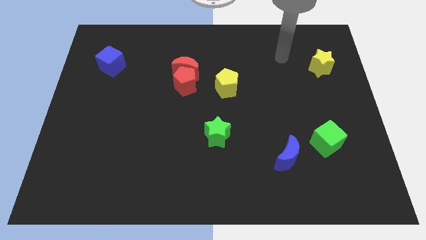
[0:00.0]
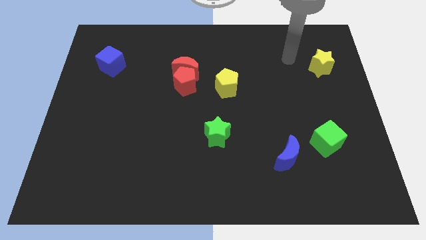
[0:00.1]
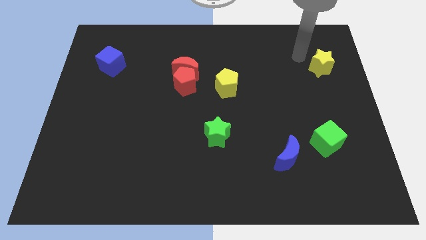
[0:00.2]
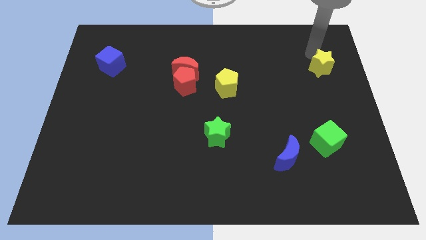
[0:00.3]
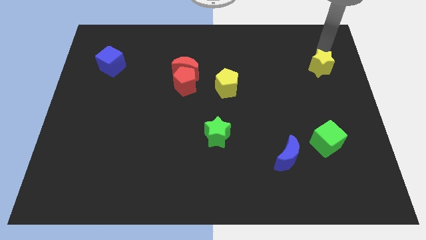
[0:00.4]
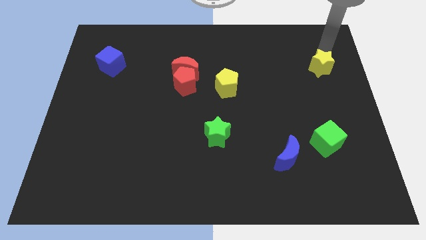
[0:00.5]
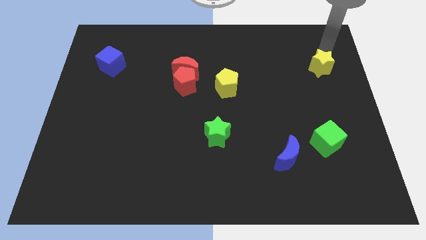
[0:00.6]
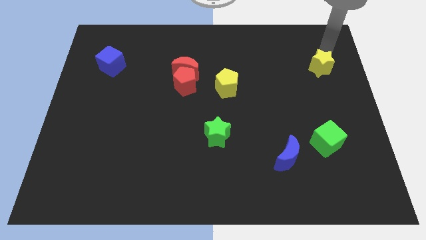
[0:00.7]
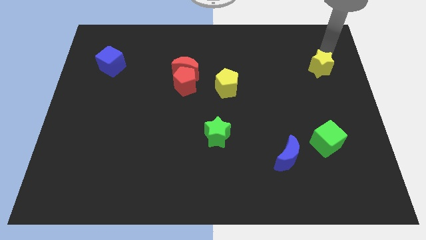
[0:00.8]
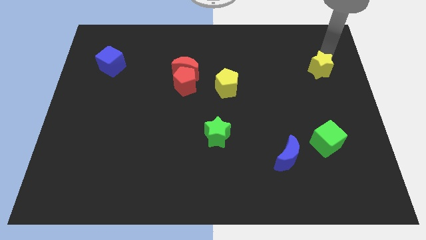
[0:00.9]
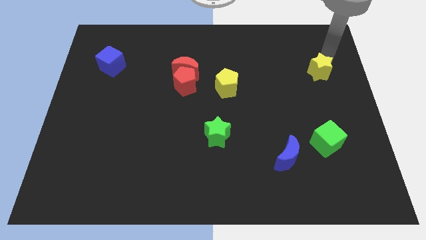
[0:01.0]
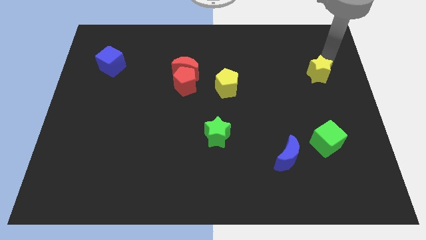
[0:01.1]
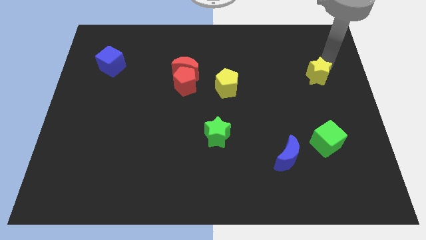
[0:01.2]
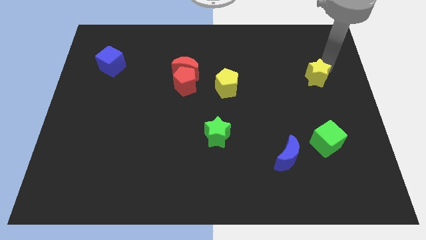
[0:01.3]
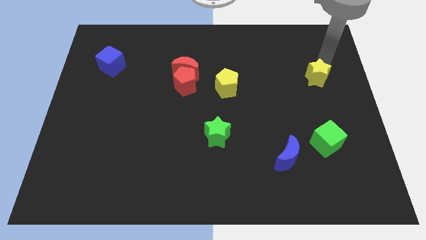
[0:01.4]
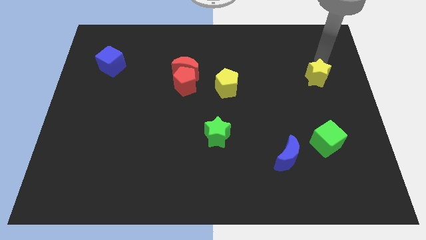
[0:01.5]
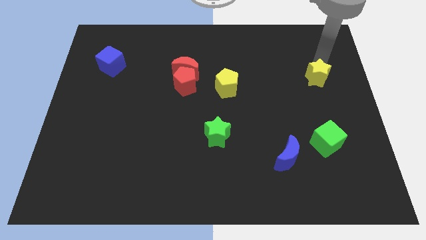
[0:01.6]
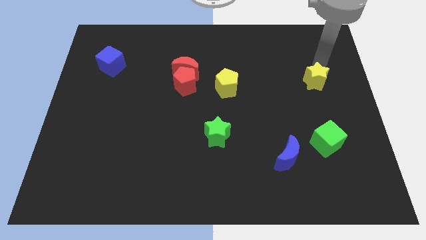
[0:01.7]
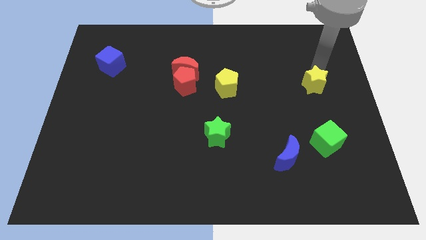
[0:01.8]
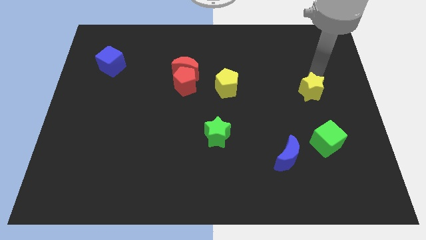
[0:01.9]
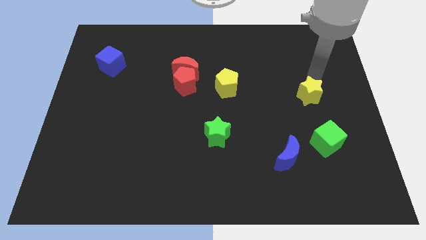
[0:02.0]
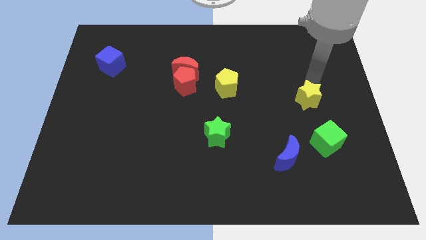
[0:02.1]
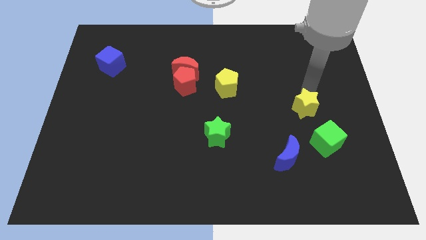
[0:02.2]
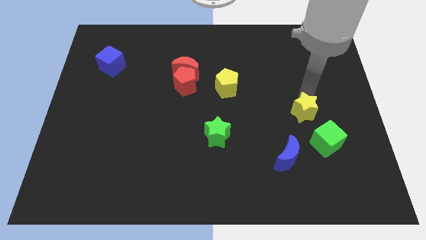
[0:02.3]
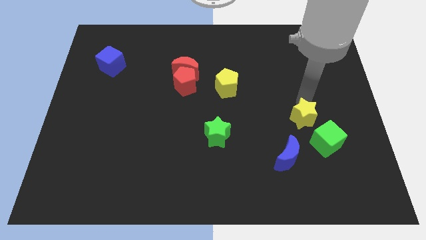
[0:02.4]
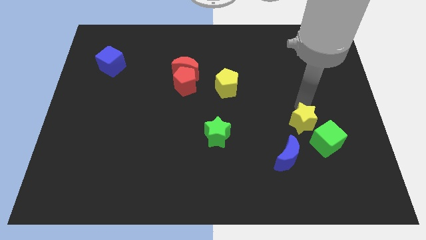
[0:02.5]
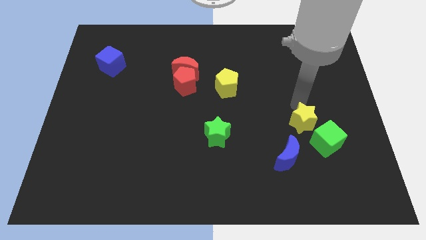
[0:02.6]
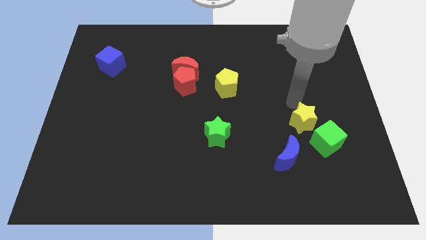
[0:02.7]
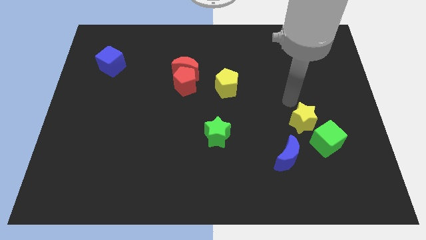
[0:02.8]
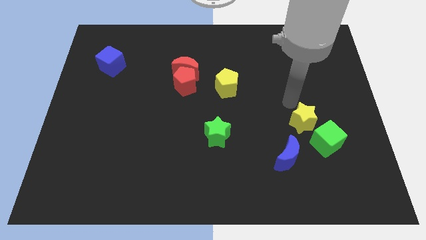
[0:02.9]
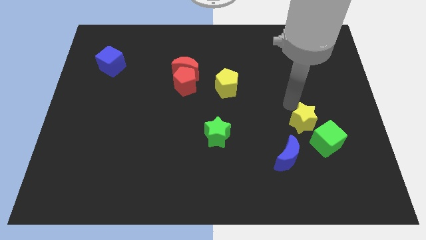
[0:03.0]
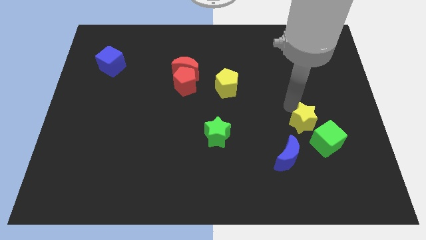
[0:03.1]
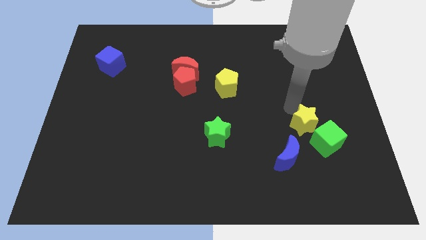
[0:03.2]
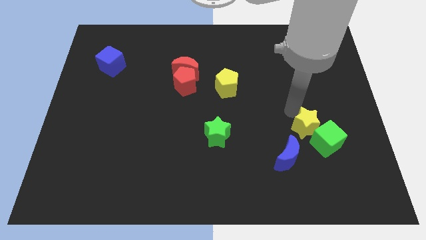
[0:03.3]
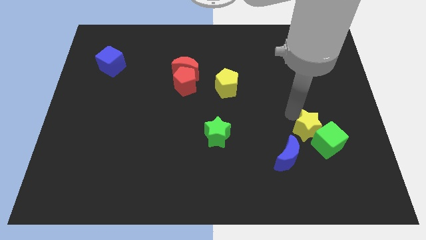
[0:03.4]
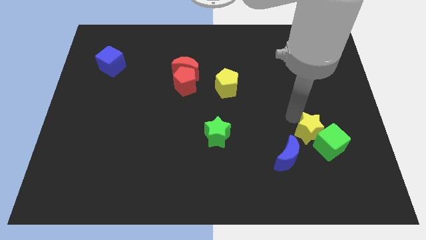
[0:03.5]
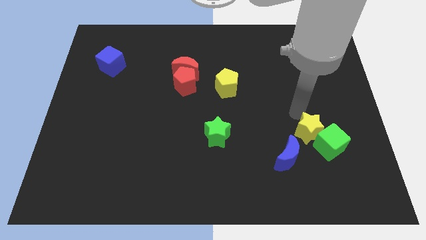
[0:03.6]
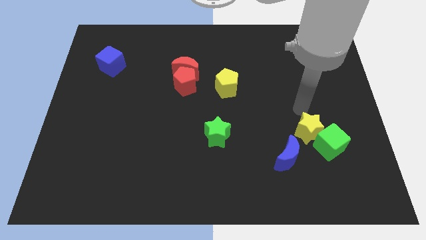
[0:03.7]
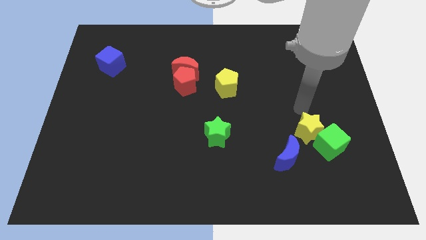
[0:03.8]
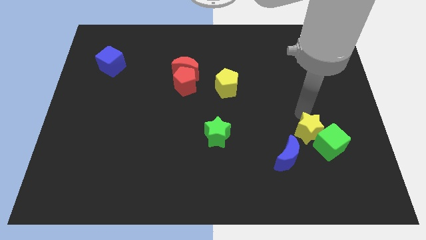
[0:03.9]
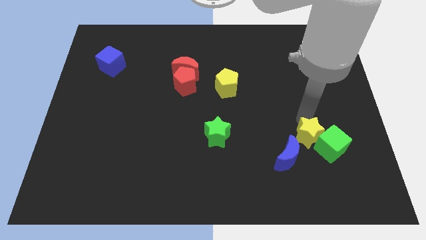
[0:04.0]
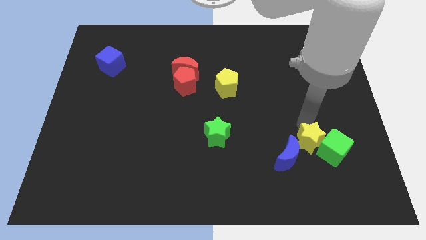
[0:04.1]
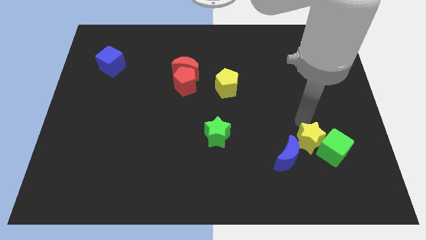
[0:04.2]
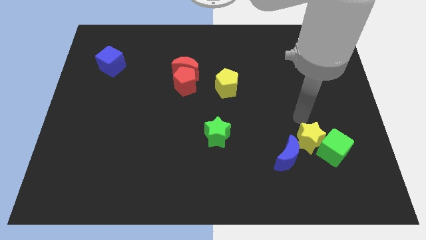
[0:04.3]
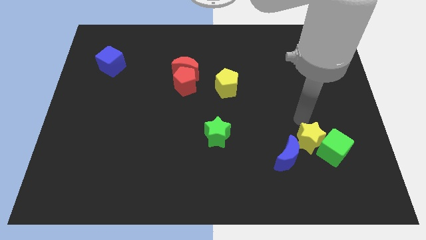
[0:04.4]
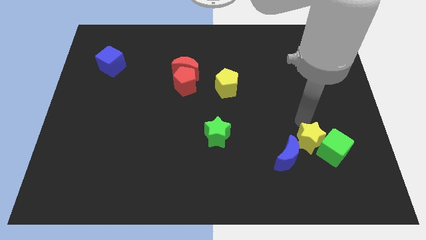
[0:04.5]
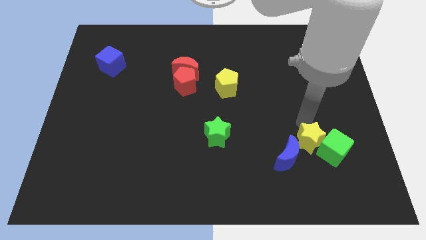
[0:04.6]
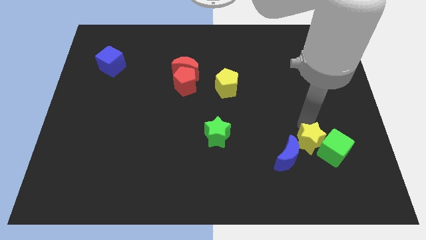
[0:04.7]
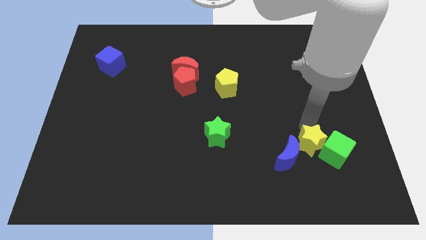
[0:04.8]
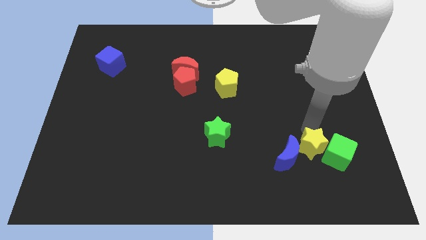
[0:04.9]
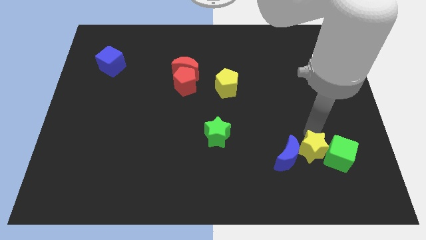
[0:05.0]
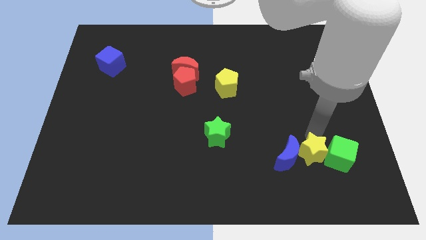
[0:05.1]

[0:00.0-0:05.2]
push the yellow star to the bottom right of the blue moon

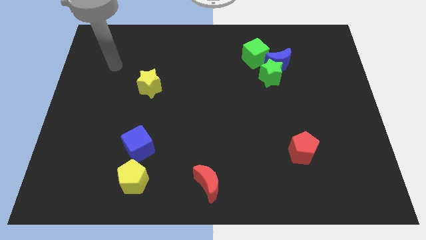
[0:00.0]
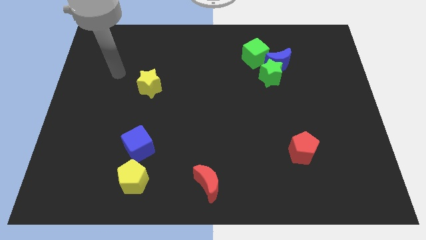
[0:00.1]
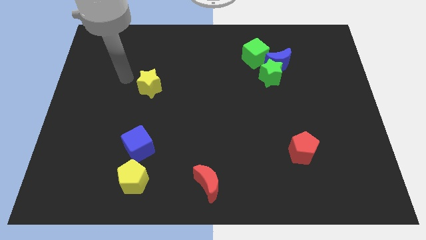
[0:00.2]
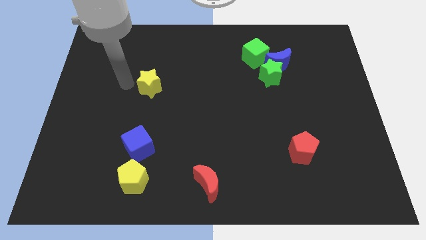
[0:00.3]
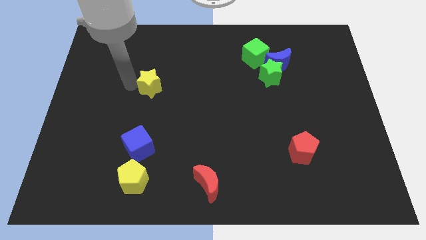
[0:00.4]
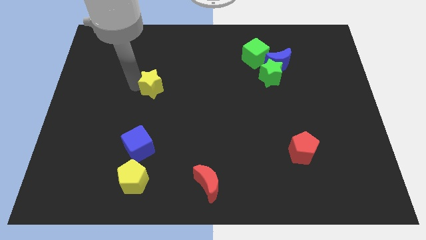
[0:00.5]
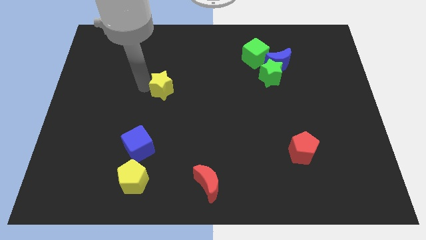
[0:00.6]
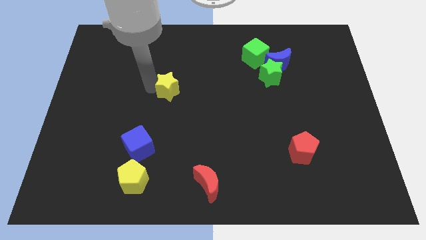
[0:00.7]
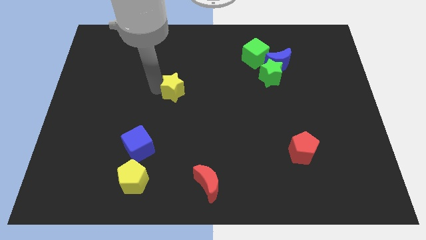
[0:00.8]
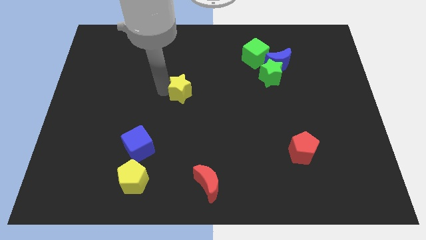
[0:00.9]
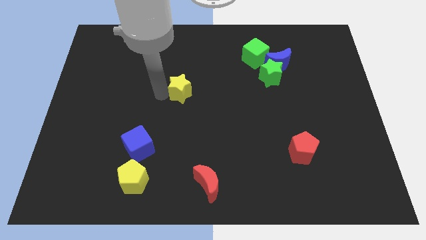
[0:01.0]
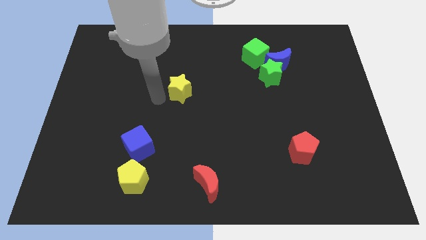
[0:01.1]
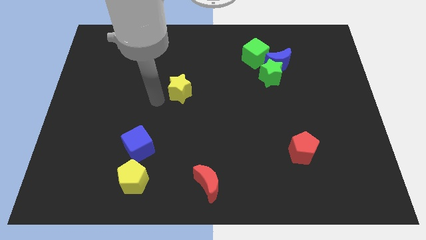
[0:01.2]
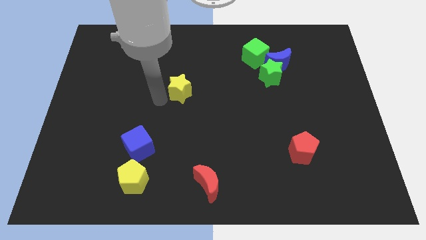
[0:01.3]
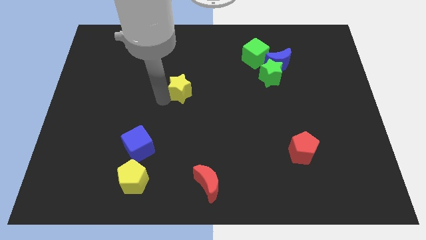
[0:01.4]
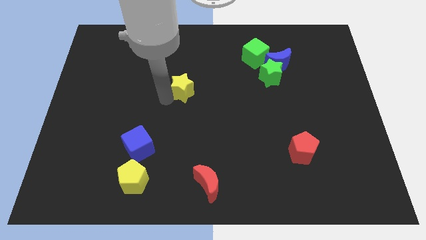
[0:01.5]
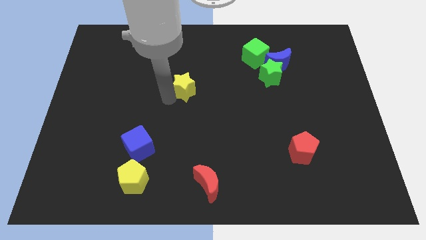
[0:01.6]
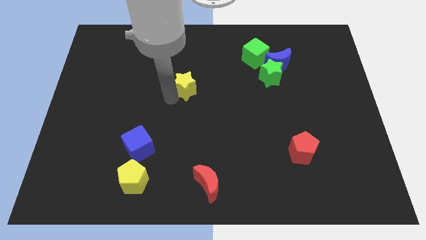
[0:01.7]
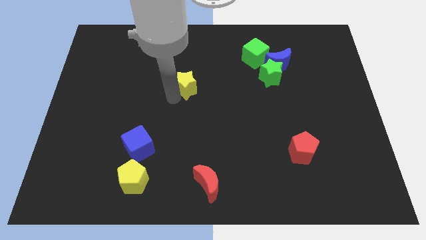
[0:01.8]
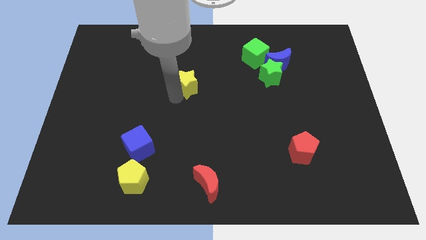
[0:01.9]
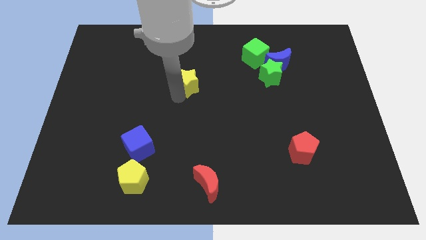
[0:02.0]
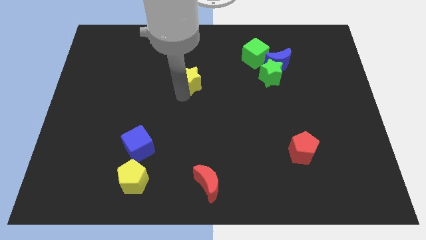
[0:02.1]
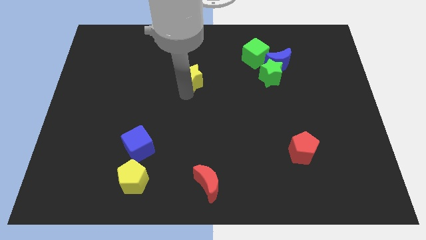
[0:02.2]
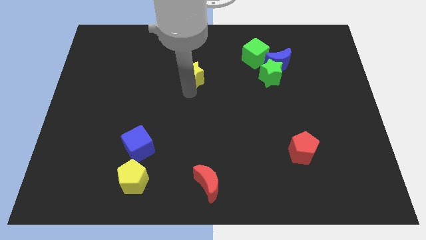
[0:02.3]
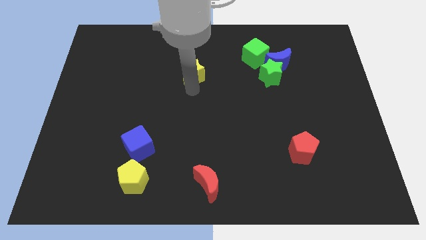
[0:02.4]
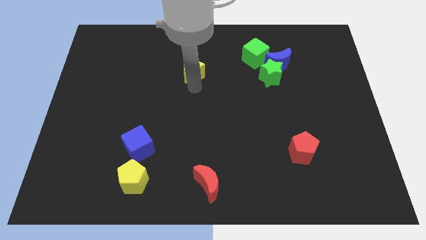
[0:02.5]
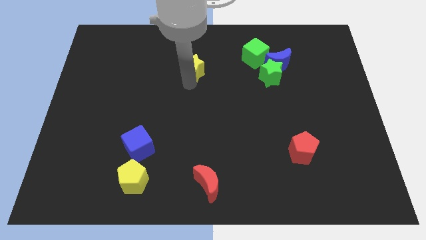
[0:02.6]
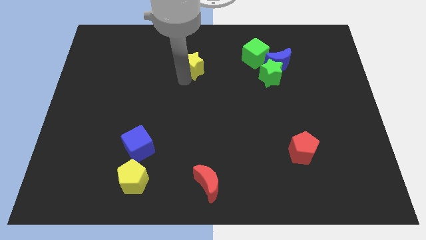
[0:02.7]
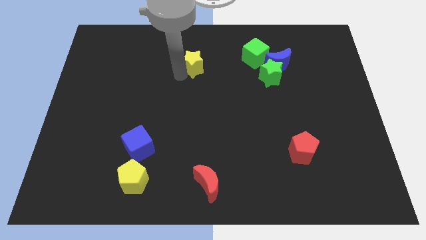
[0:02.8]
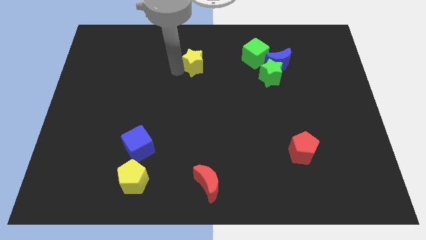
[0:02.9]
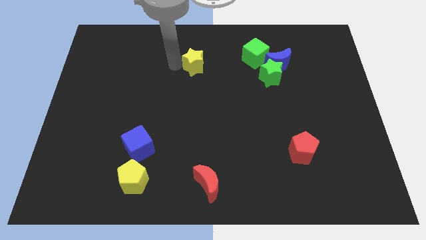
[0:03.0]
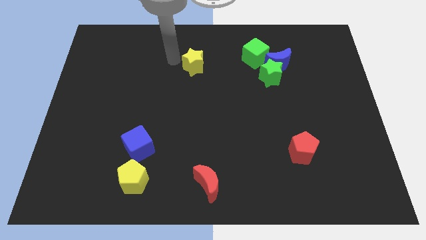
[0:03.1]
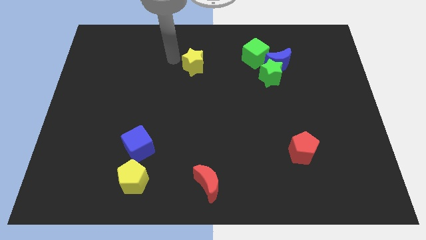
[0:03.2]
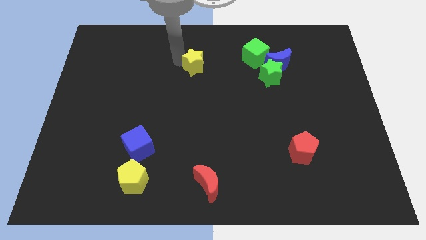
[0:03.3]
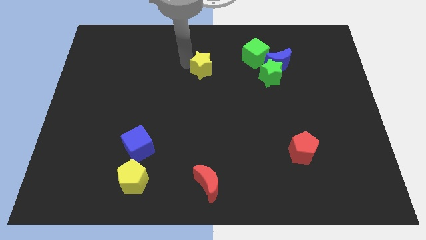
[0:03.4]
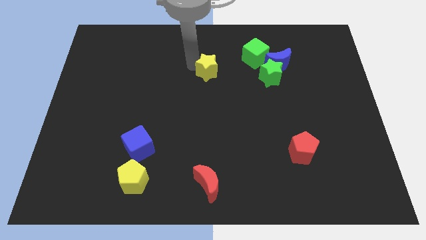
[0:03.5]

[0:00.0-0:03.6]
move the yellow star left of the green star
